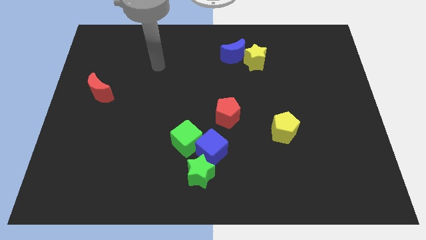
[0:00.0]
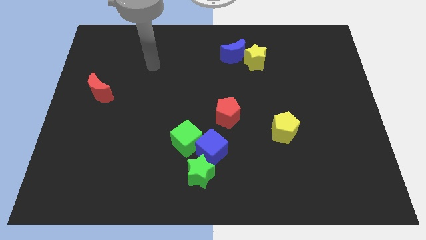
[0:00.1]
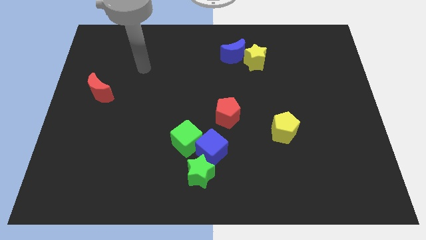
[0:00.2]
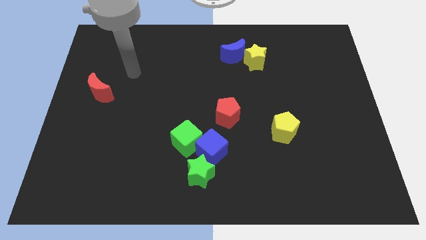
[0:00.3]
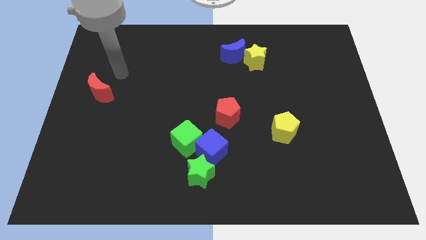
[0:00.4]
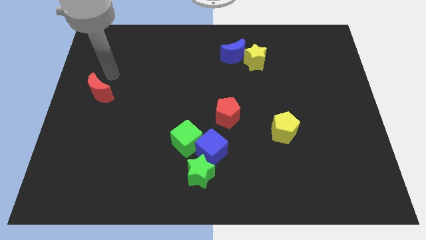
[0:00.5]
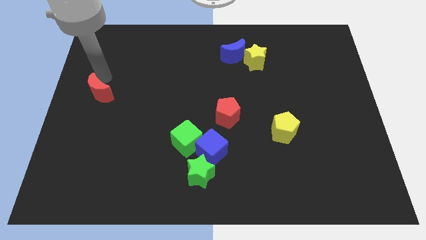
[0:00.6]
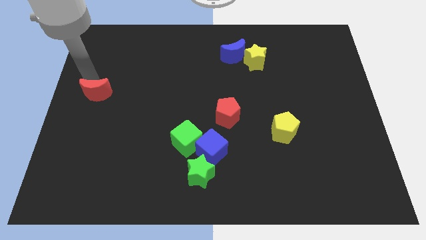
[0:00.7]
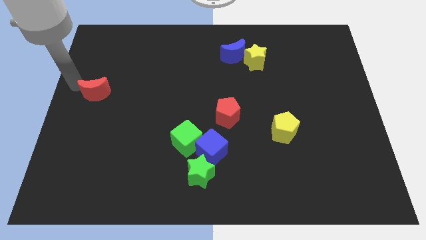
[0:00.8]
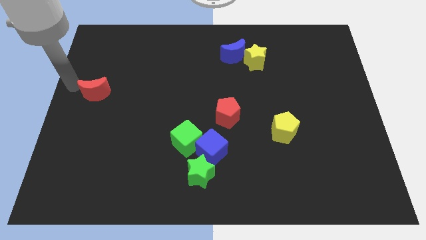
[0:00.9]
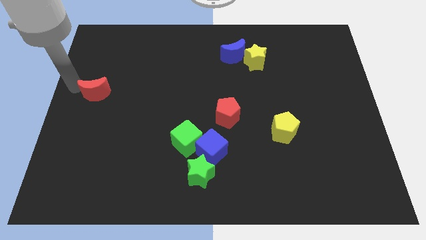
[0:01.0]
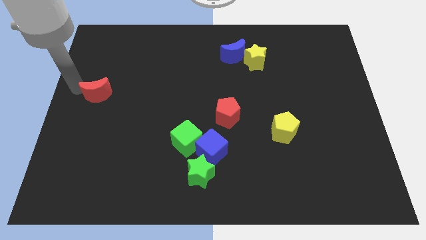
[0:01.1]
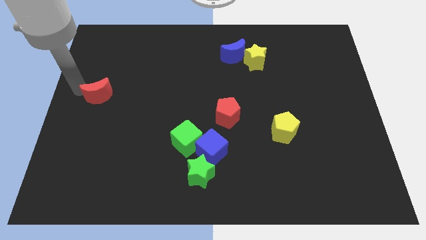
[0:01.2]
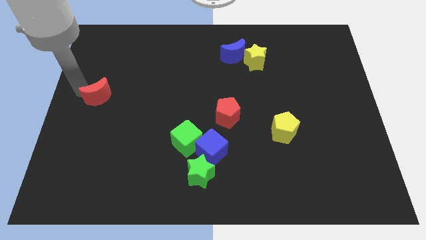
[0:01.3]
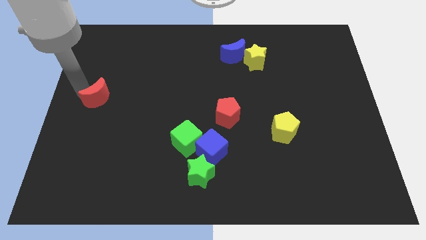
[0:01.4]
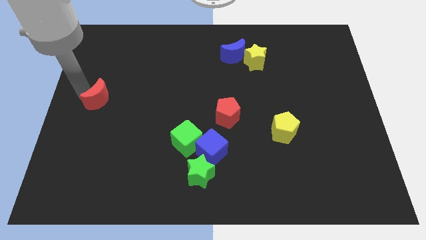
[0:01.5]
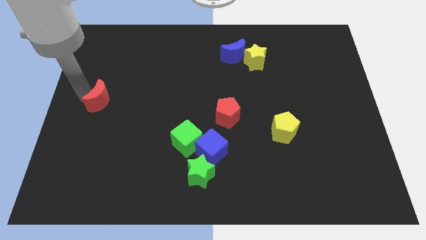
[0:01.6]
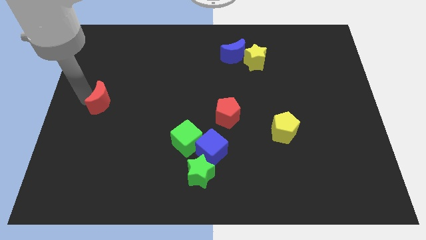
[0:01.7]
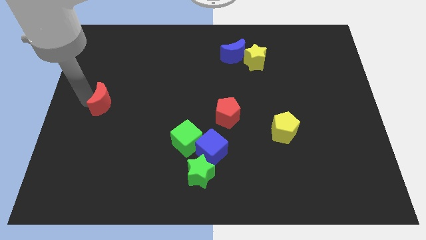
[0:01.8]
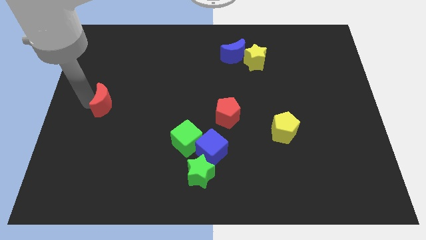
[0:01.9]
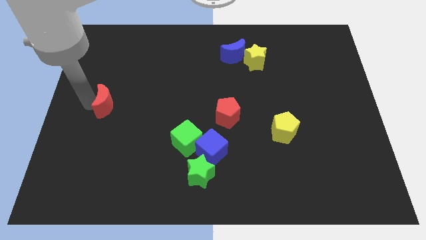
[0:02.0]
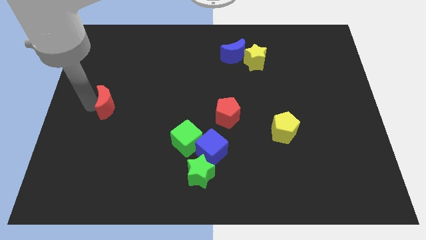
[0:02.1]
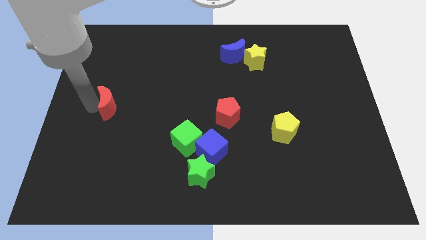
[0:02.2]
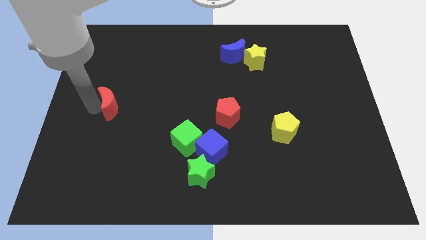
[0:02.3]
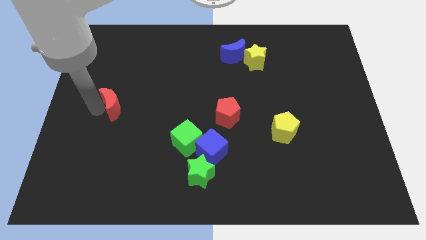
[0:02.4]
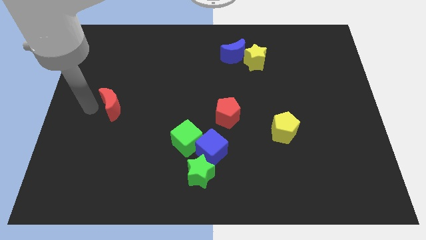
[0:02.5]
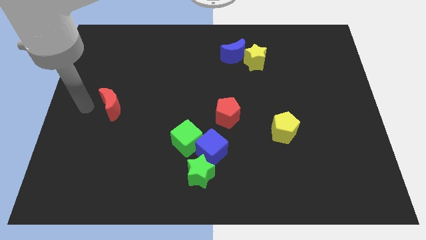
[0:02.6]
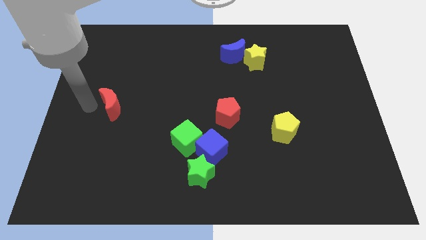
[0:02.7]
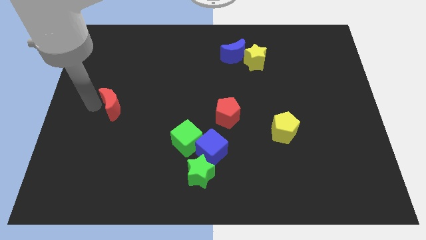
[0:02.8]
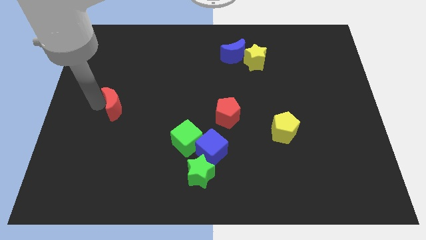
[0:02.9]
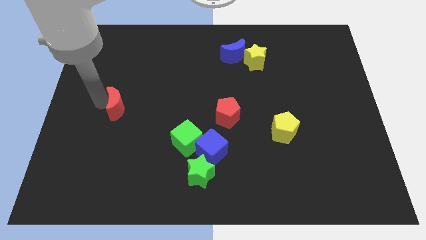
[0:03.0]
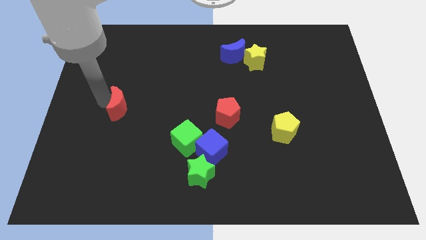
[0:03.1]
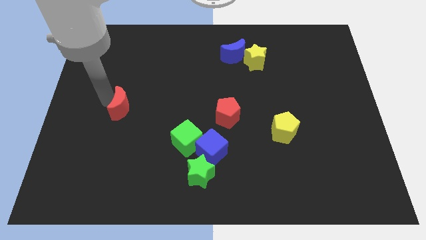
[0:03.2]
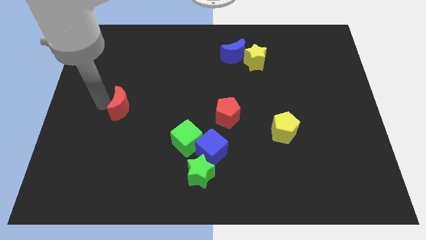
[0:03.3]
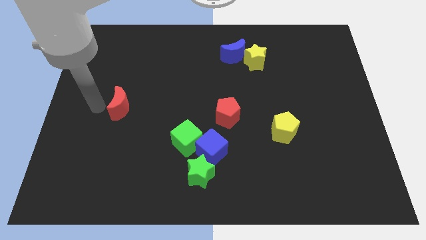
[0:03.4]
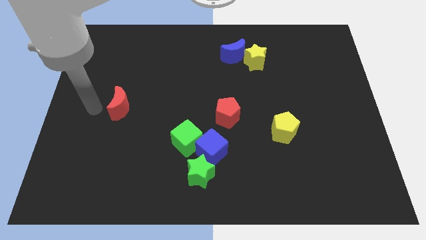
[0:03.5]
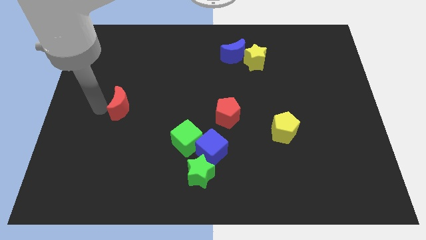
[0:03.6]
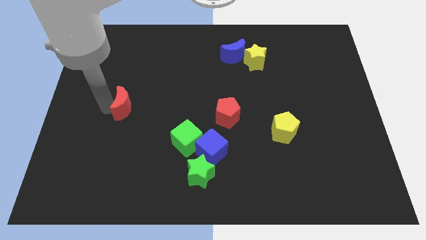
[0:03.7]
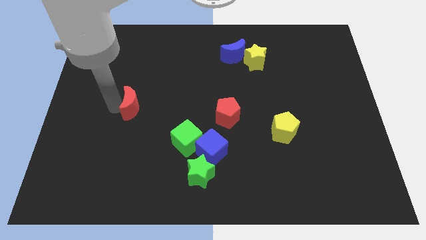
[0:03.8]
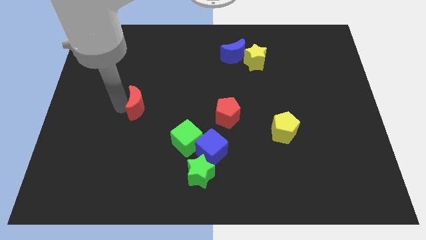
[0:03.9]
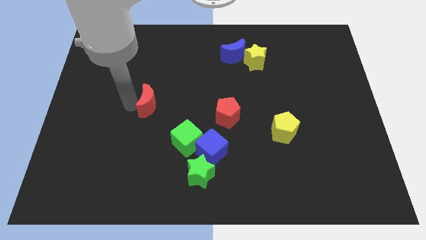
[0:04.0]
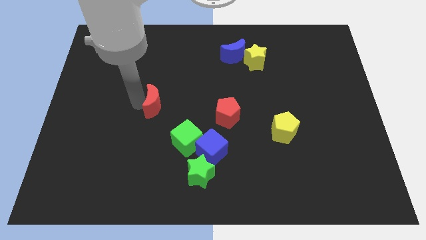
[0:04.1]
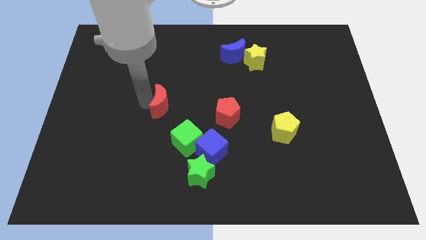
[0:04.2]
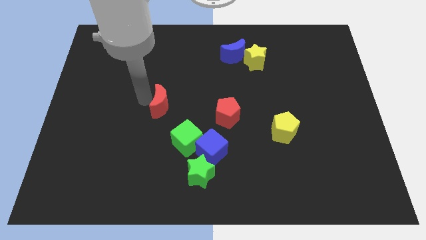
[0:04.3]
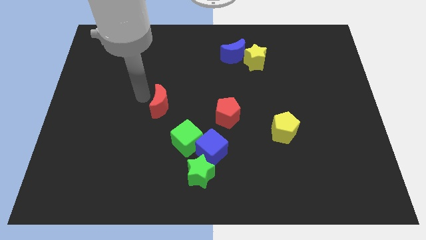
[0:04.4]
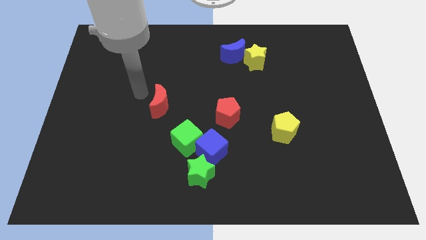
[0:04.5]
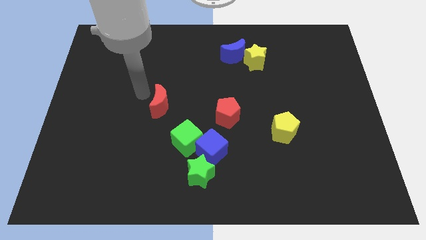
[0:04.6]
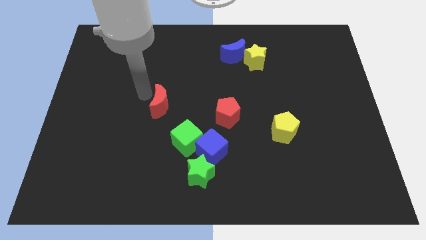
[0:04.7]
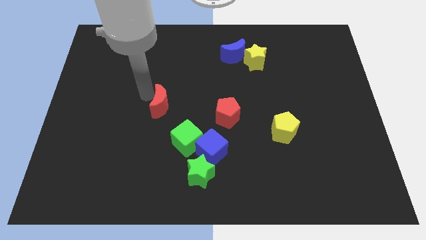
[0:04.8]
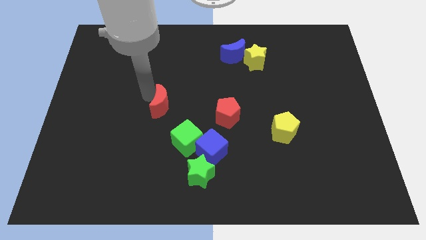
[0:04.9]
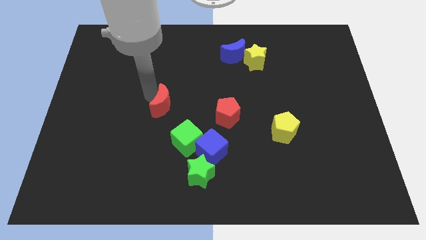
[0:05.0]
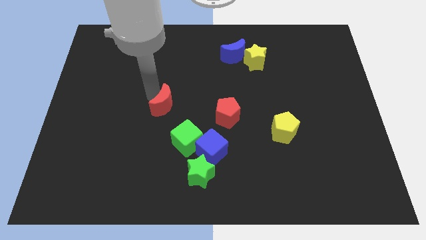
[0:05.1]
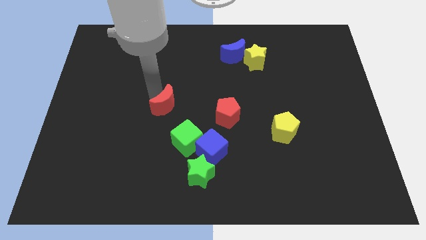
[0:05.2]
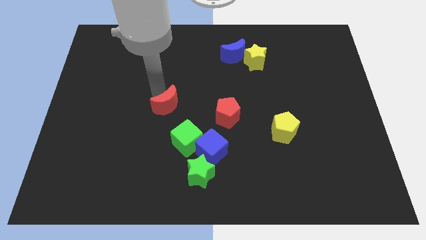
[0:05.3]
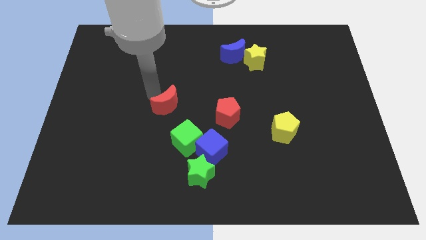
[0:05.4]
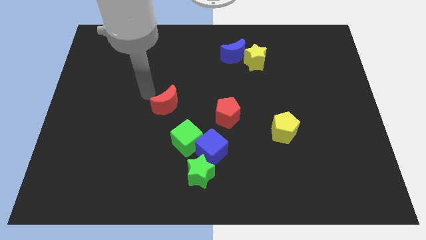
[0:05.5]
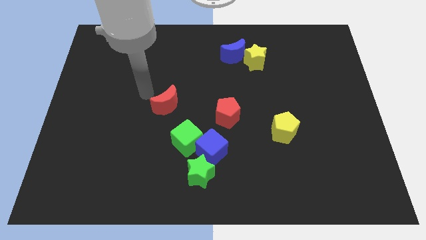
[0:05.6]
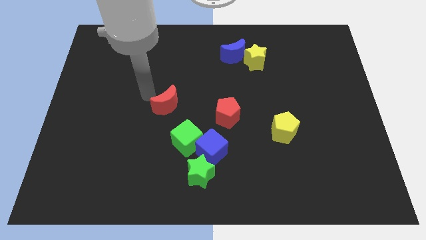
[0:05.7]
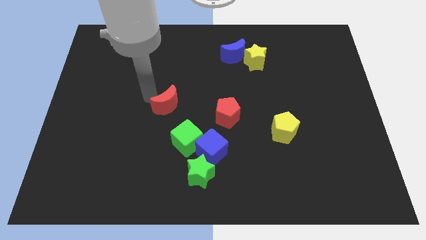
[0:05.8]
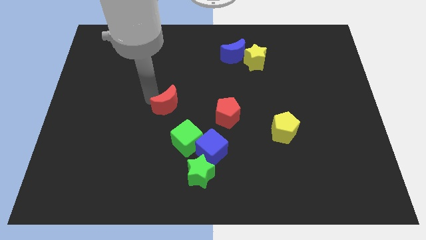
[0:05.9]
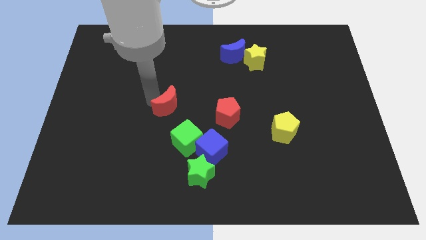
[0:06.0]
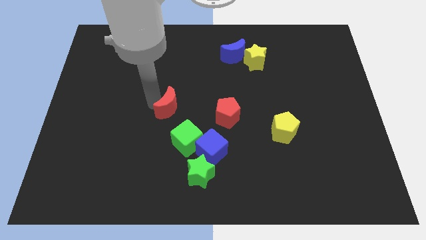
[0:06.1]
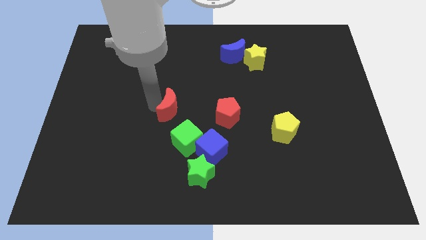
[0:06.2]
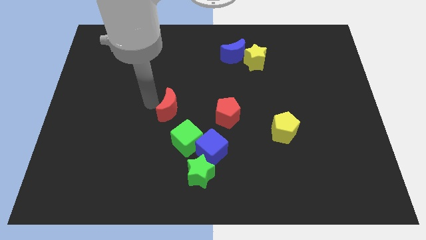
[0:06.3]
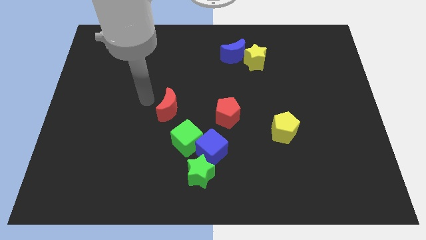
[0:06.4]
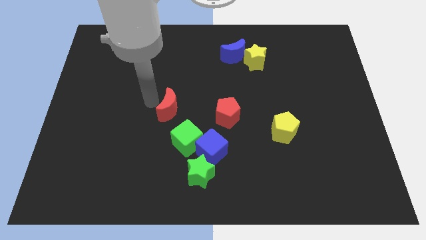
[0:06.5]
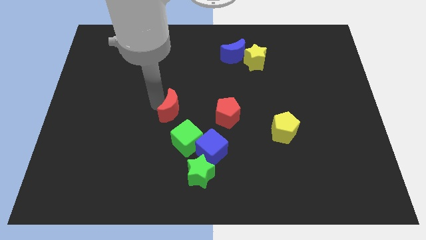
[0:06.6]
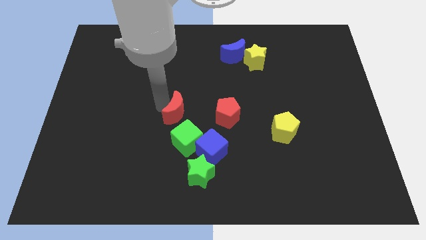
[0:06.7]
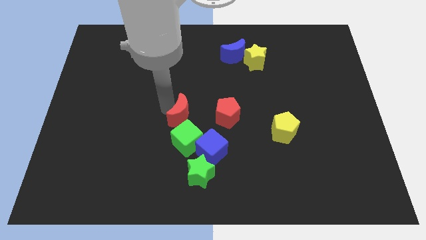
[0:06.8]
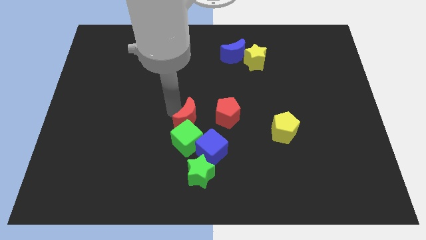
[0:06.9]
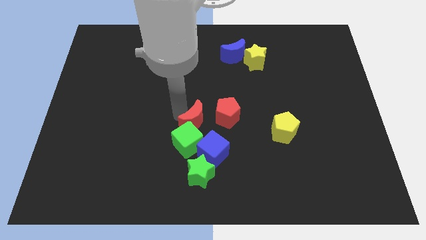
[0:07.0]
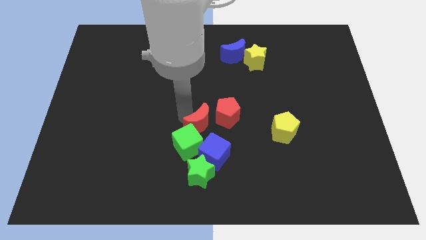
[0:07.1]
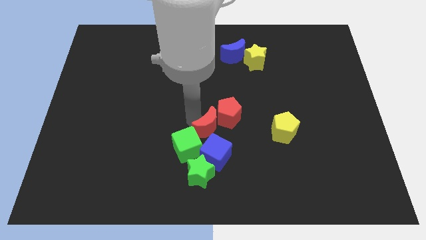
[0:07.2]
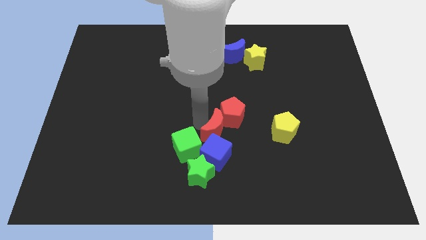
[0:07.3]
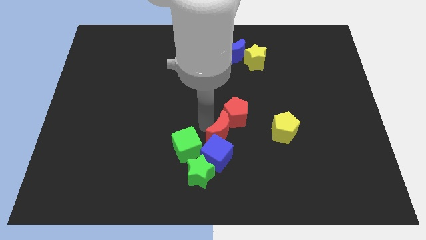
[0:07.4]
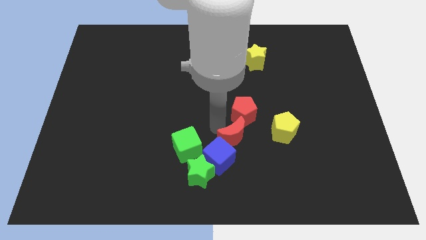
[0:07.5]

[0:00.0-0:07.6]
push the red moon to the top right of the green star
